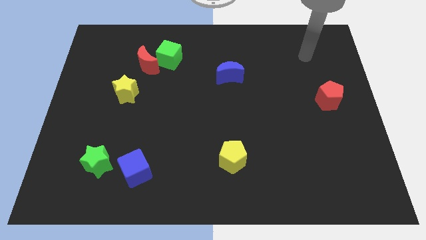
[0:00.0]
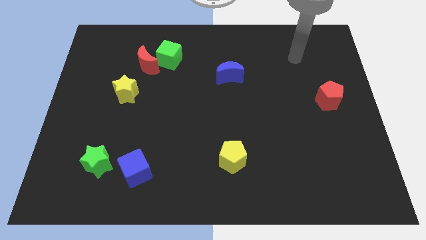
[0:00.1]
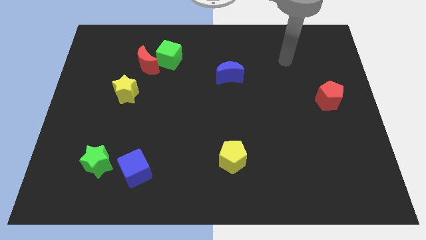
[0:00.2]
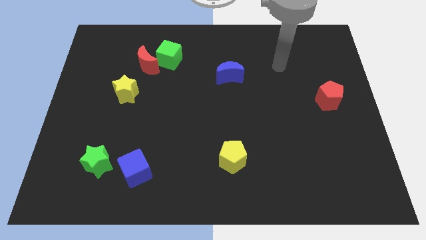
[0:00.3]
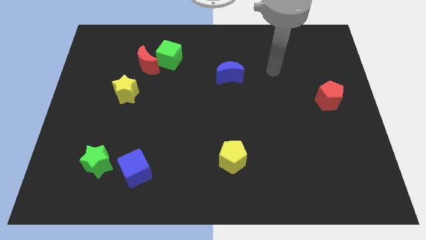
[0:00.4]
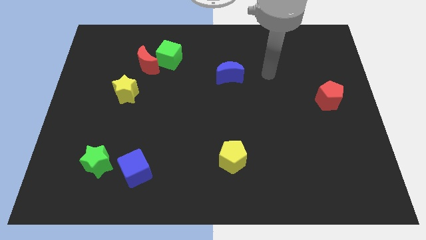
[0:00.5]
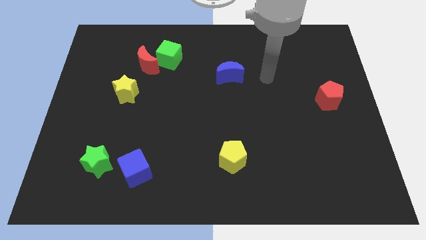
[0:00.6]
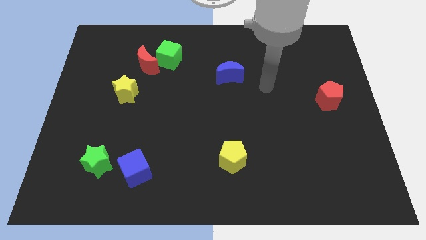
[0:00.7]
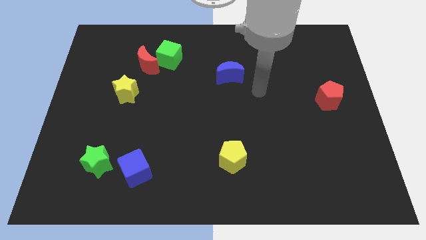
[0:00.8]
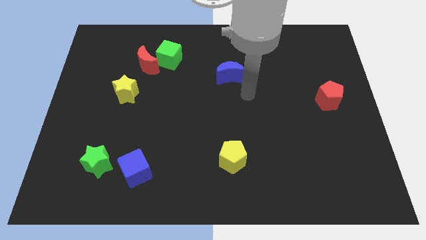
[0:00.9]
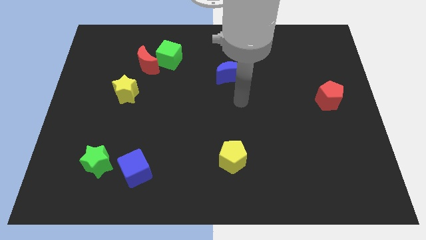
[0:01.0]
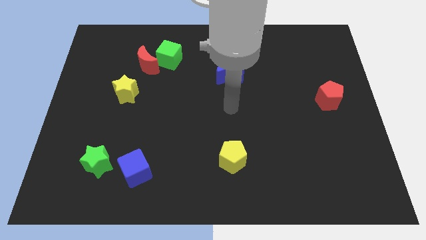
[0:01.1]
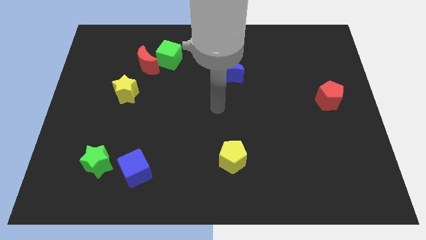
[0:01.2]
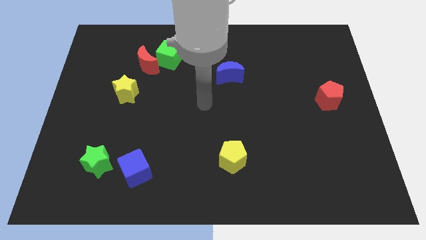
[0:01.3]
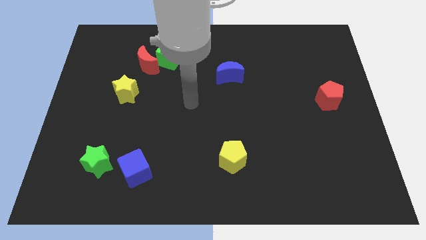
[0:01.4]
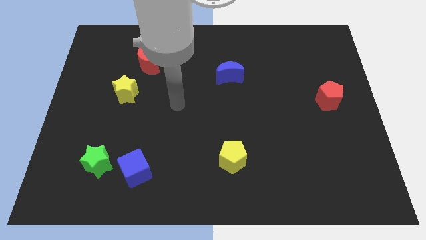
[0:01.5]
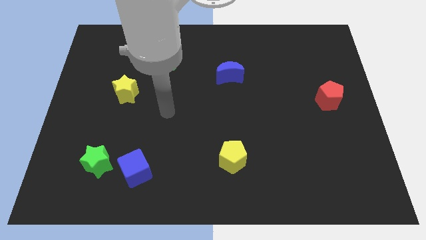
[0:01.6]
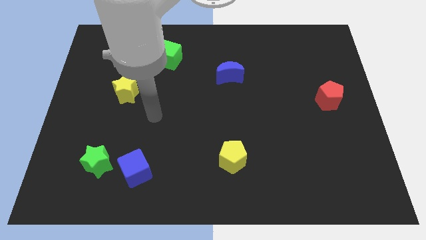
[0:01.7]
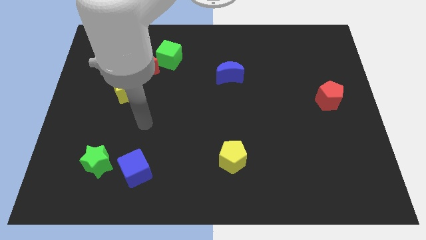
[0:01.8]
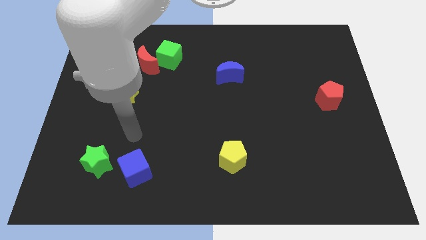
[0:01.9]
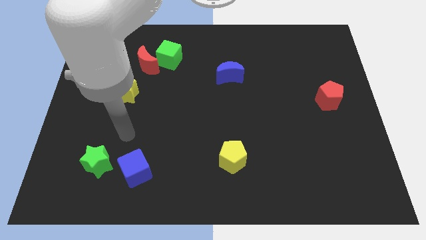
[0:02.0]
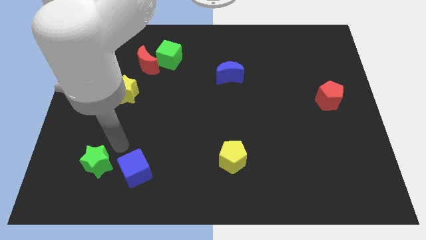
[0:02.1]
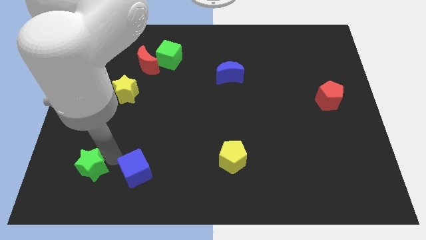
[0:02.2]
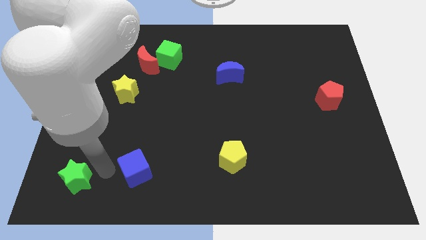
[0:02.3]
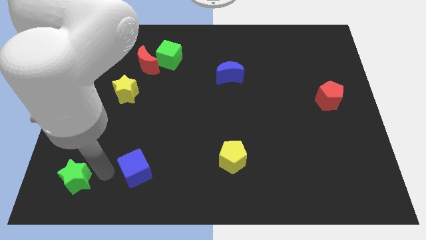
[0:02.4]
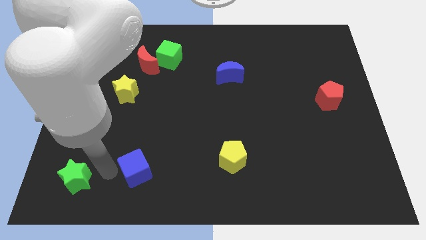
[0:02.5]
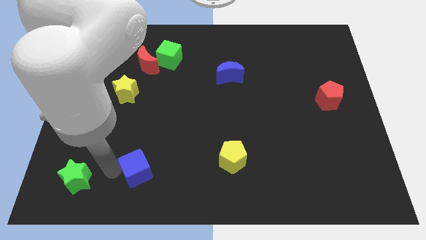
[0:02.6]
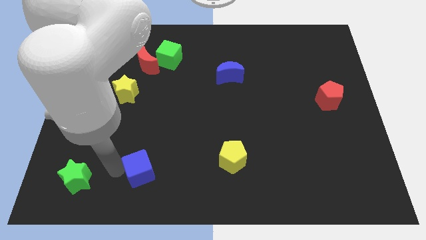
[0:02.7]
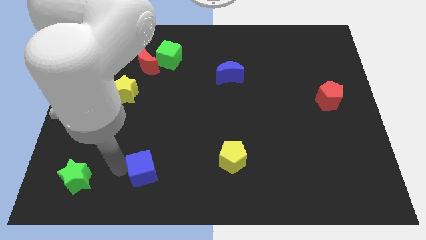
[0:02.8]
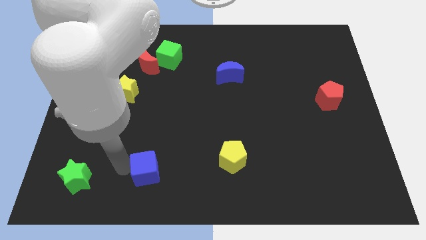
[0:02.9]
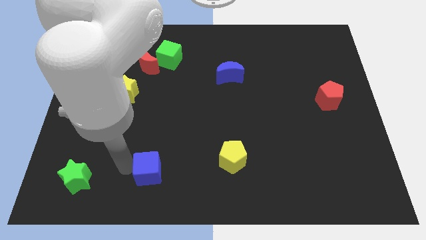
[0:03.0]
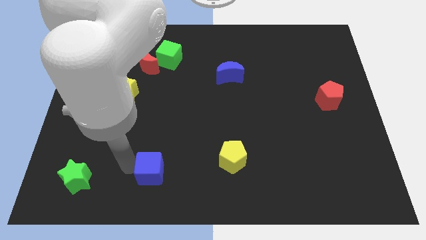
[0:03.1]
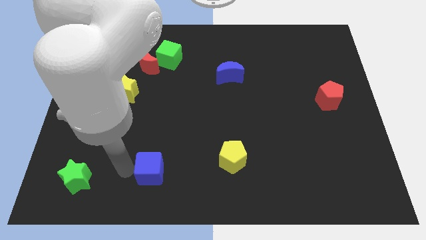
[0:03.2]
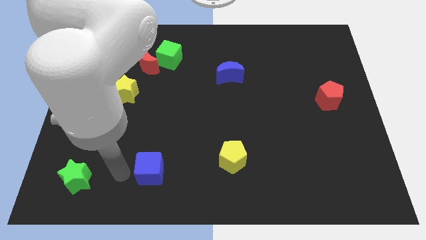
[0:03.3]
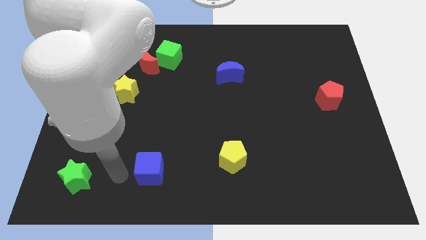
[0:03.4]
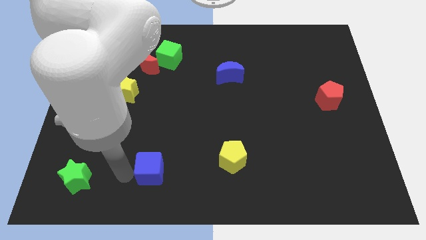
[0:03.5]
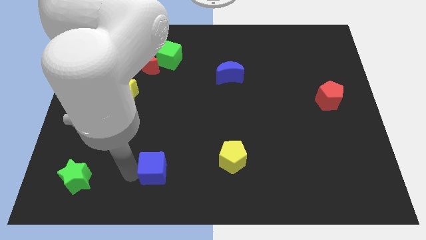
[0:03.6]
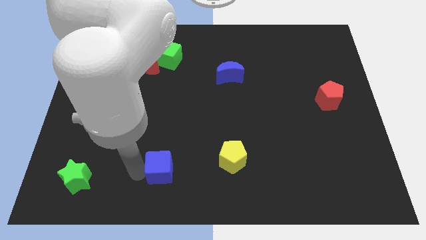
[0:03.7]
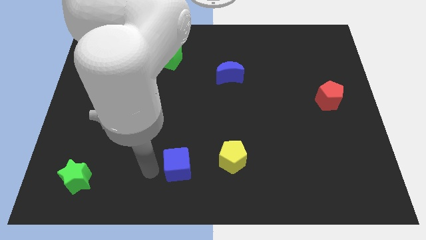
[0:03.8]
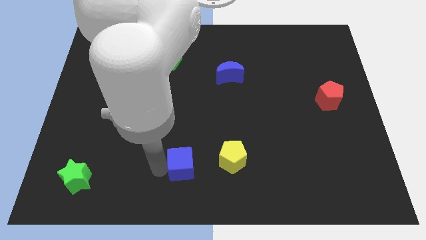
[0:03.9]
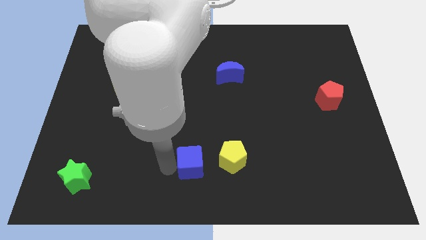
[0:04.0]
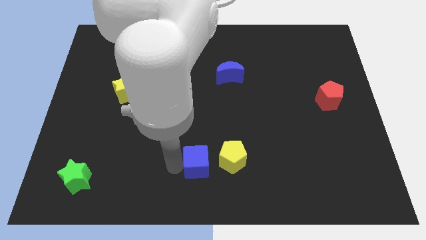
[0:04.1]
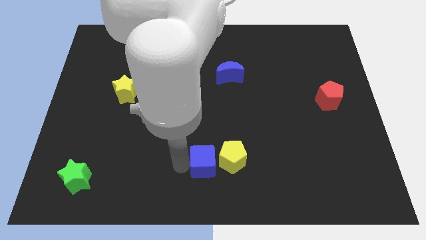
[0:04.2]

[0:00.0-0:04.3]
put the blue cube to the yellow pentagon

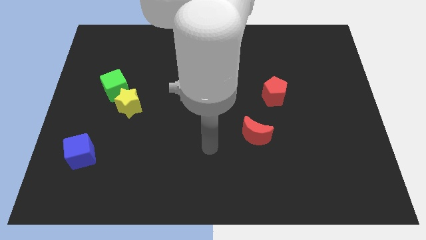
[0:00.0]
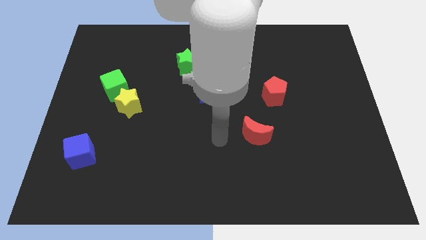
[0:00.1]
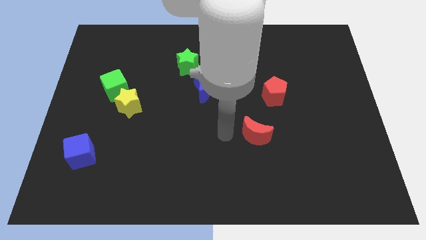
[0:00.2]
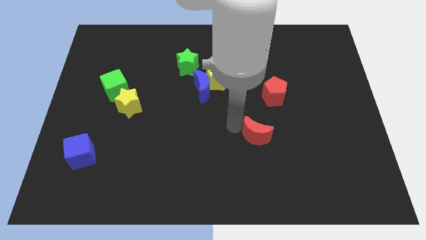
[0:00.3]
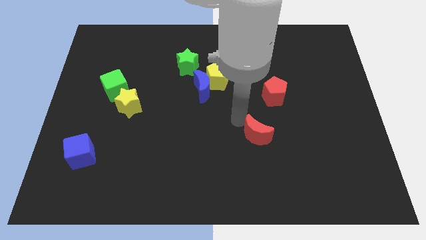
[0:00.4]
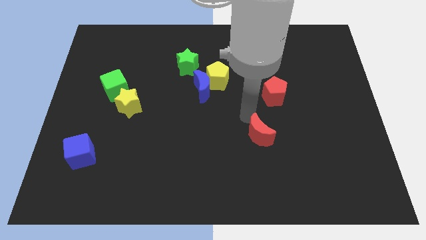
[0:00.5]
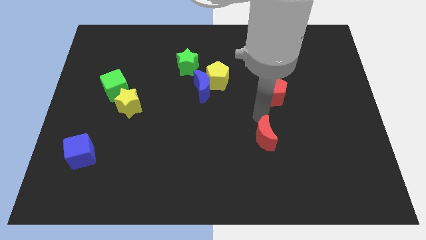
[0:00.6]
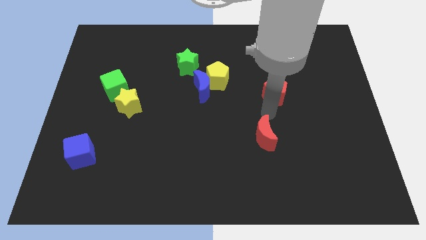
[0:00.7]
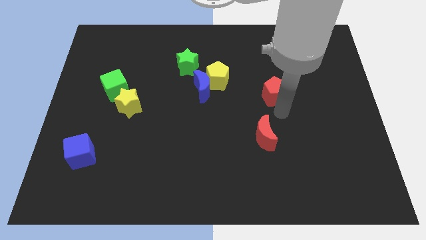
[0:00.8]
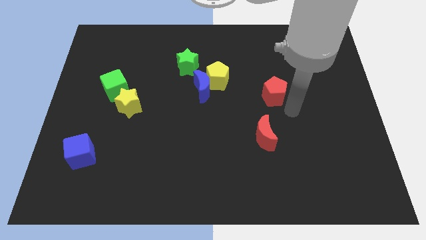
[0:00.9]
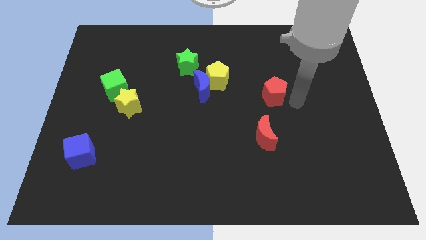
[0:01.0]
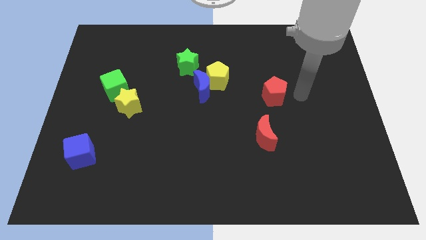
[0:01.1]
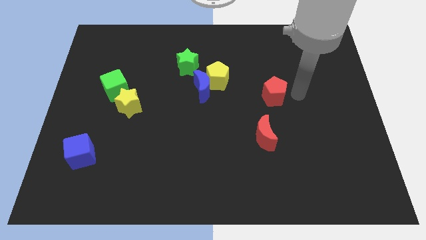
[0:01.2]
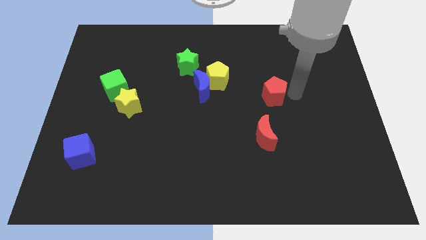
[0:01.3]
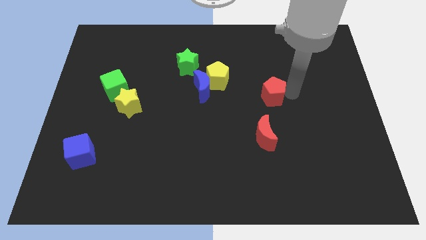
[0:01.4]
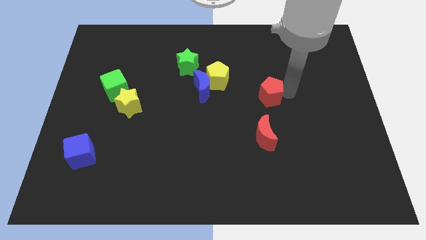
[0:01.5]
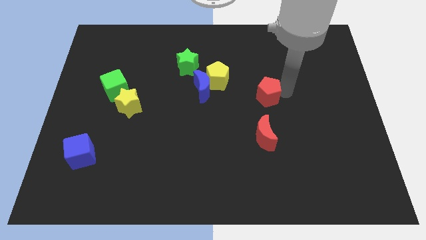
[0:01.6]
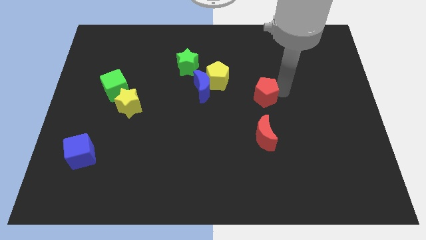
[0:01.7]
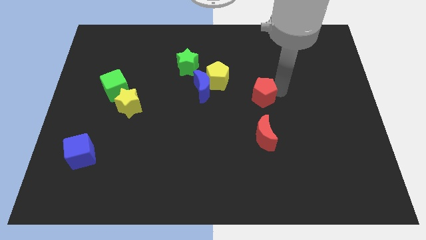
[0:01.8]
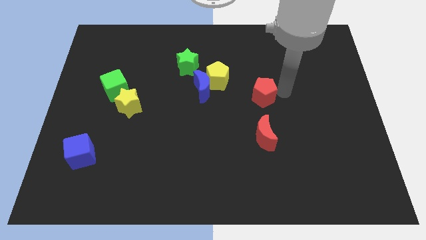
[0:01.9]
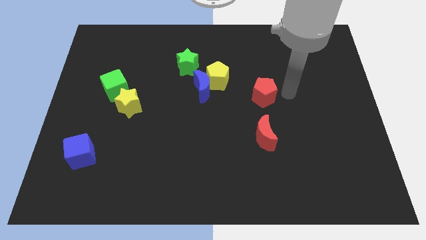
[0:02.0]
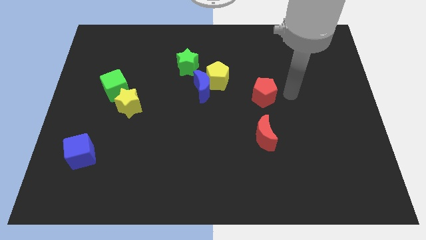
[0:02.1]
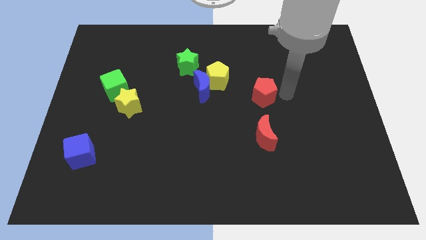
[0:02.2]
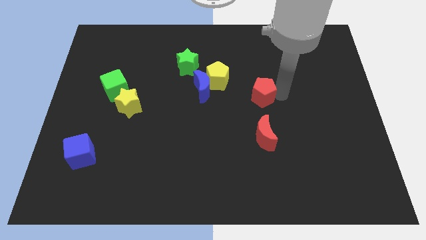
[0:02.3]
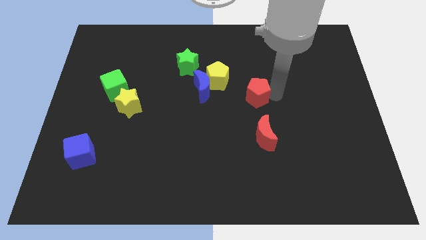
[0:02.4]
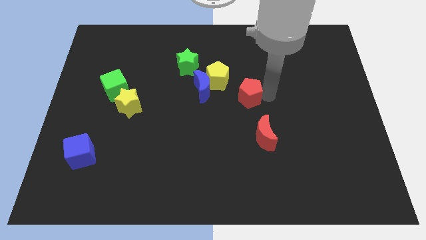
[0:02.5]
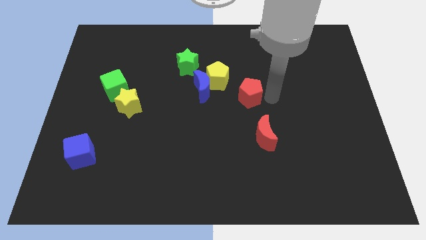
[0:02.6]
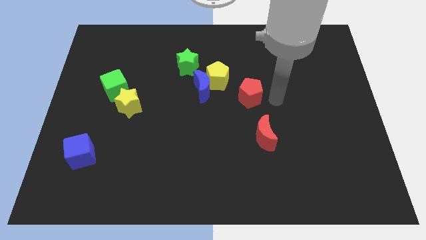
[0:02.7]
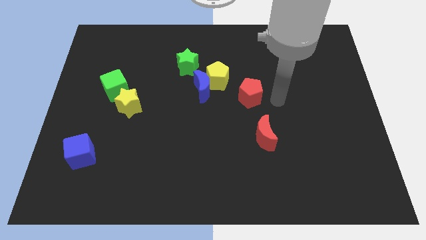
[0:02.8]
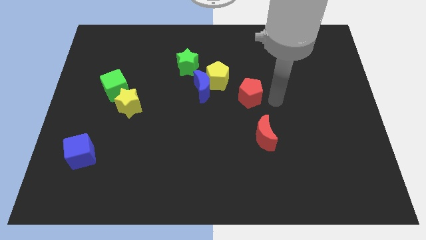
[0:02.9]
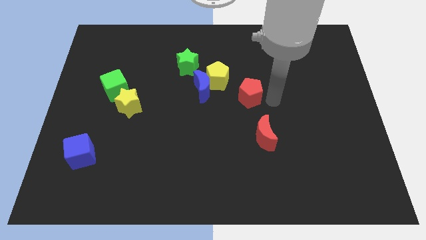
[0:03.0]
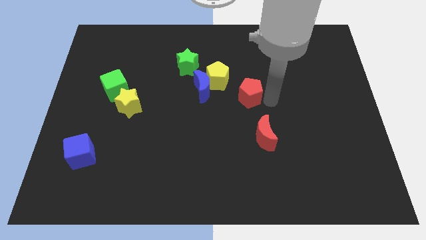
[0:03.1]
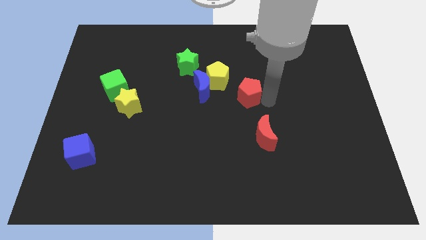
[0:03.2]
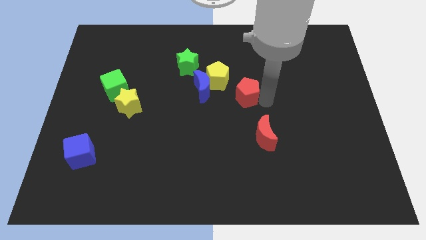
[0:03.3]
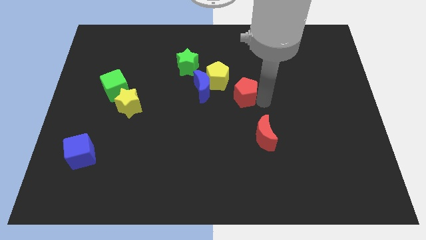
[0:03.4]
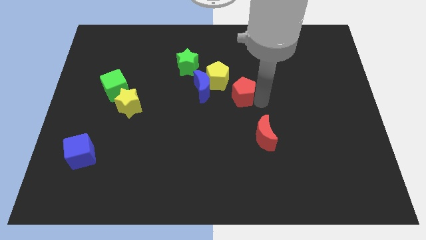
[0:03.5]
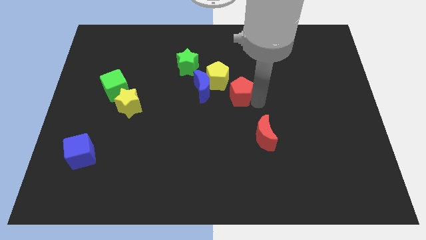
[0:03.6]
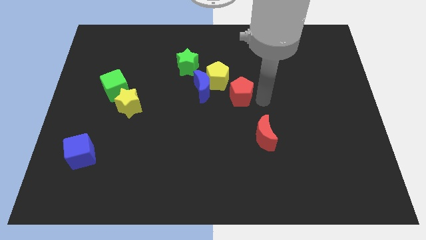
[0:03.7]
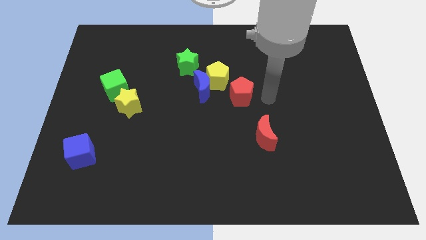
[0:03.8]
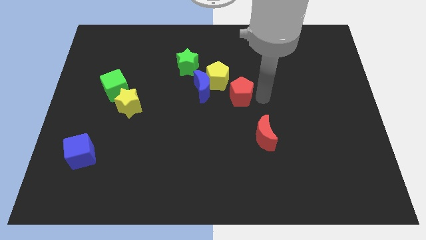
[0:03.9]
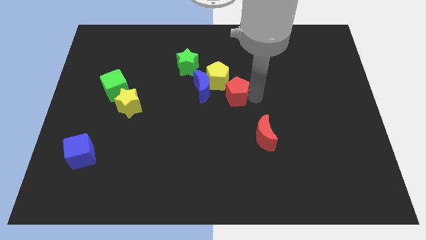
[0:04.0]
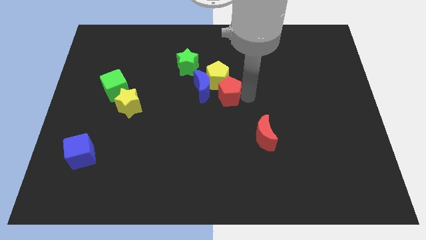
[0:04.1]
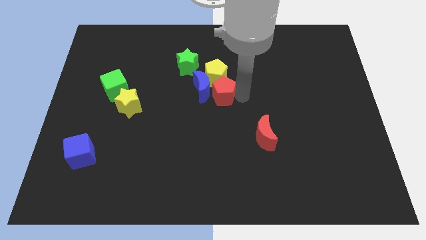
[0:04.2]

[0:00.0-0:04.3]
move the red pentagon close to the blue moon
